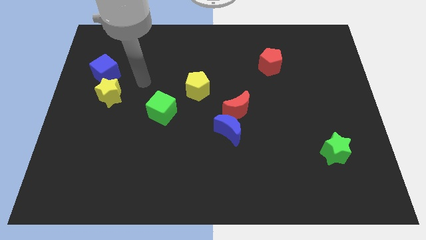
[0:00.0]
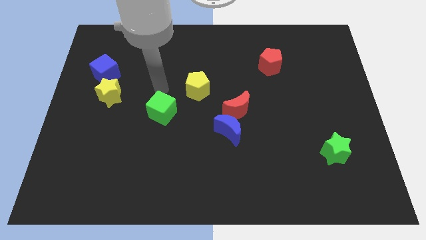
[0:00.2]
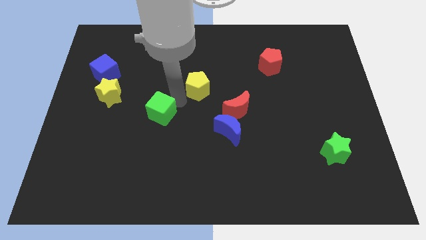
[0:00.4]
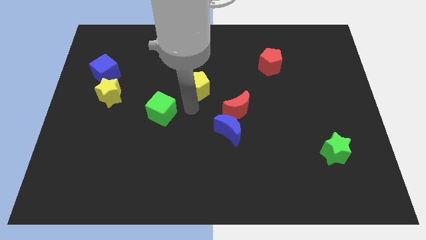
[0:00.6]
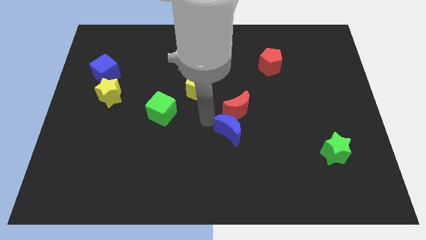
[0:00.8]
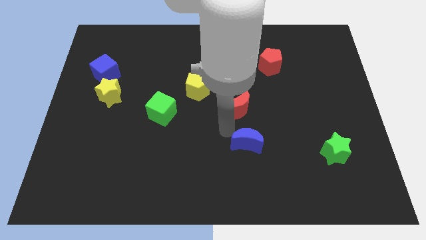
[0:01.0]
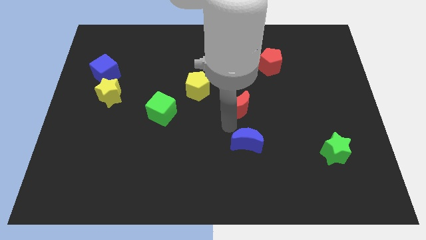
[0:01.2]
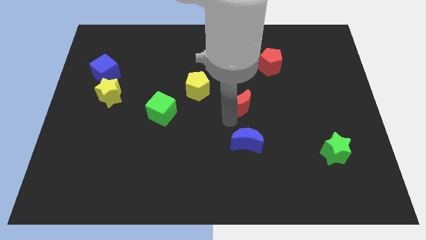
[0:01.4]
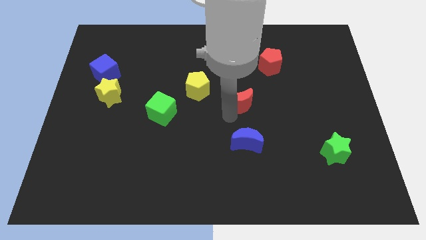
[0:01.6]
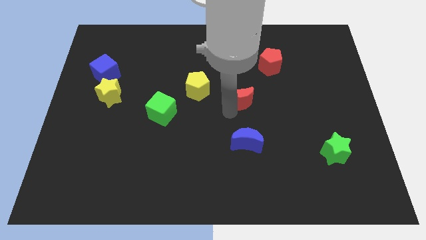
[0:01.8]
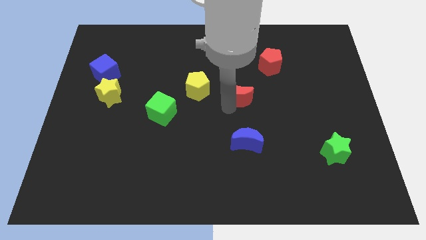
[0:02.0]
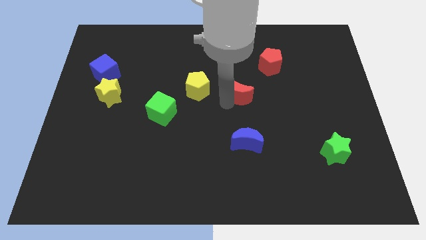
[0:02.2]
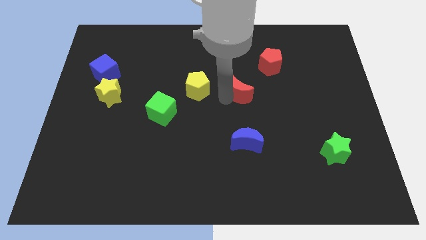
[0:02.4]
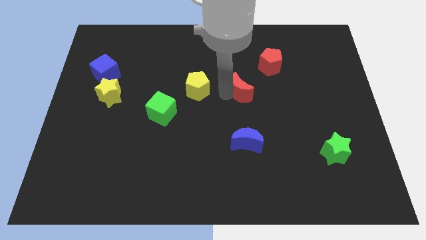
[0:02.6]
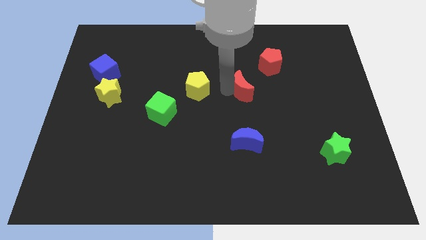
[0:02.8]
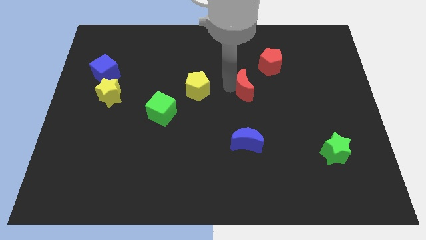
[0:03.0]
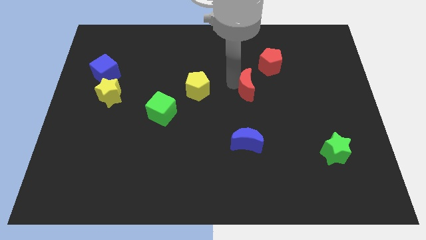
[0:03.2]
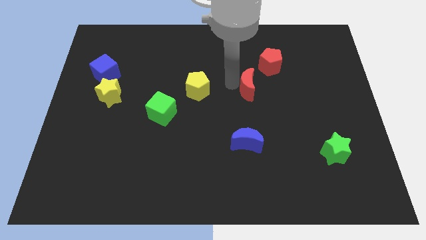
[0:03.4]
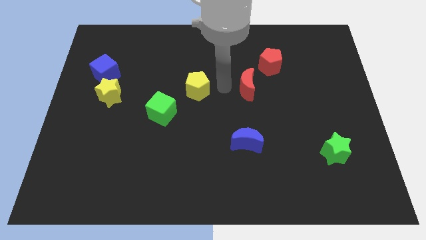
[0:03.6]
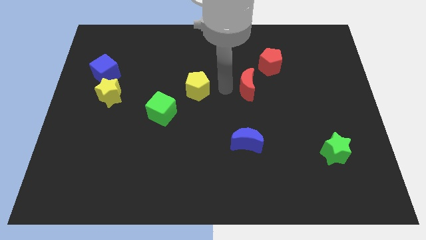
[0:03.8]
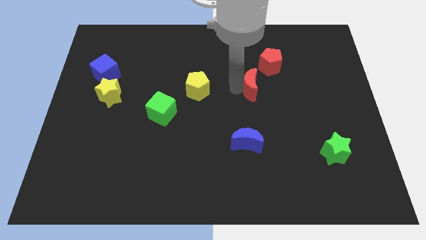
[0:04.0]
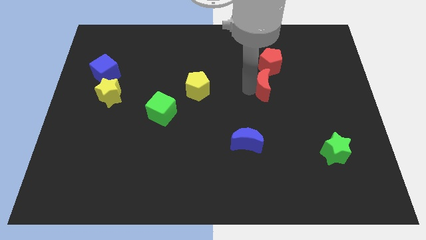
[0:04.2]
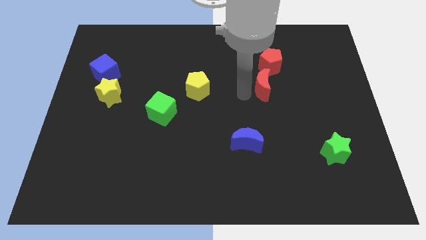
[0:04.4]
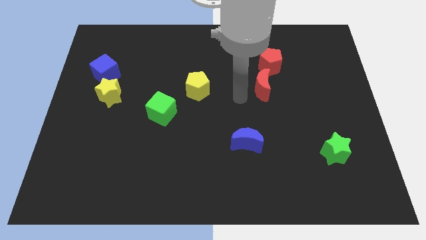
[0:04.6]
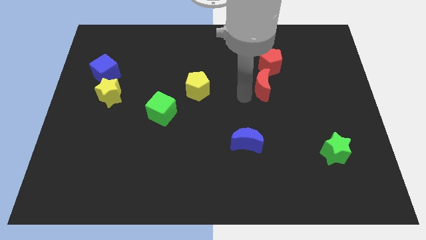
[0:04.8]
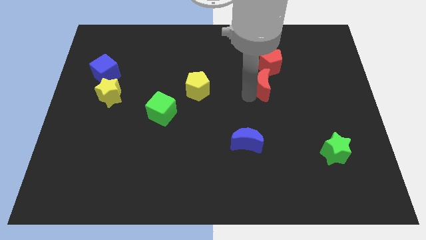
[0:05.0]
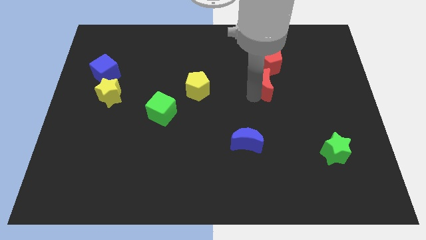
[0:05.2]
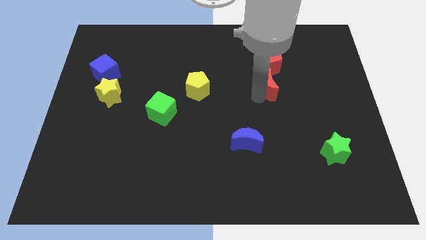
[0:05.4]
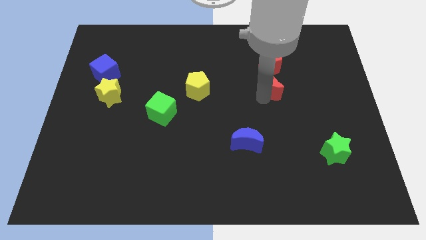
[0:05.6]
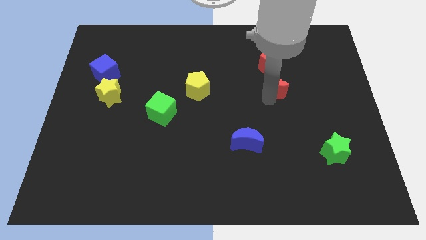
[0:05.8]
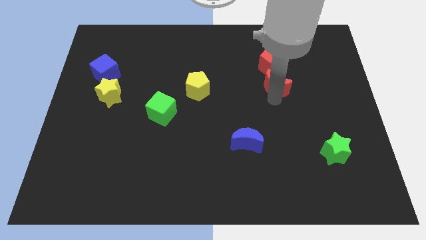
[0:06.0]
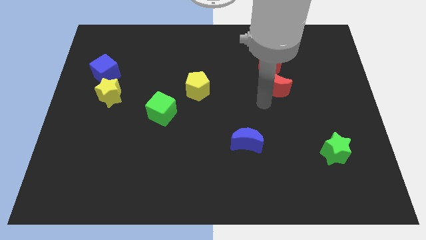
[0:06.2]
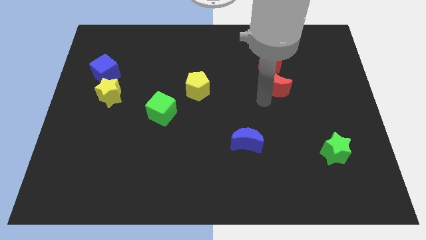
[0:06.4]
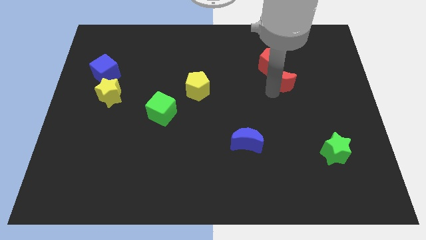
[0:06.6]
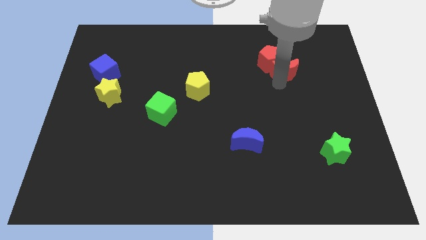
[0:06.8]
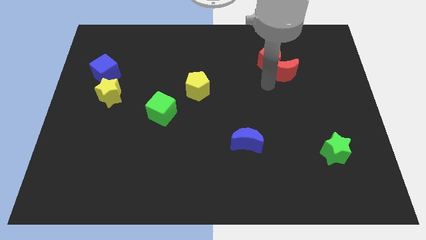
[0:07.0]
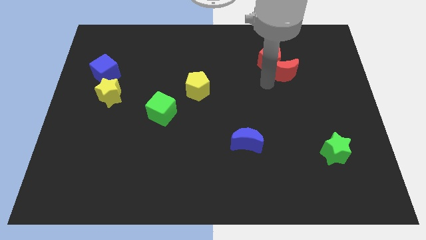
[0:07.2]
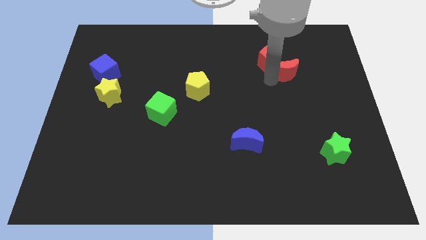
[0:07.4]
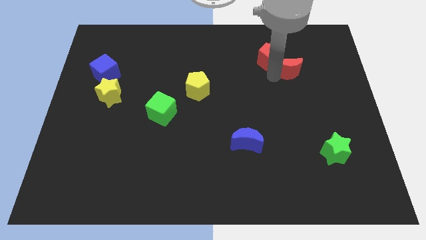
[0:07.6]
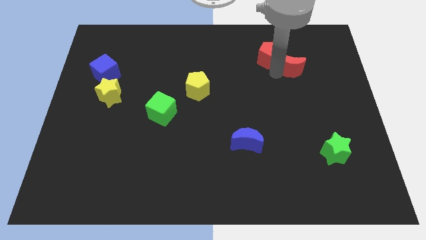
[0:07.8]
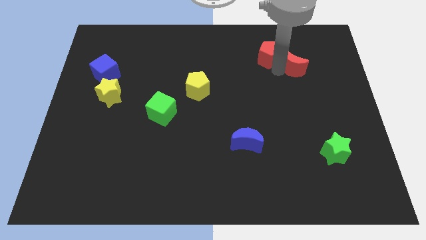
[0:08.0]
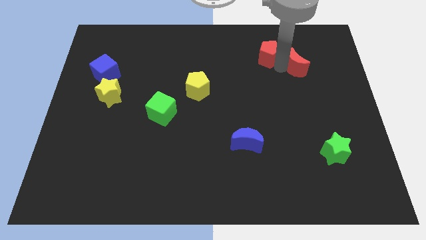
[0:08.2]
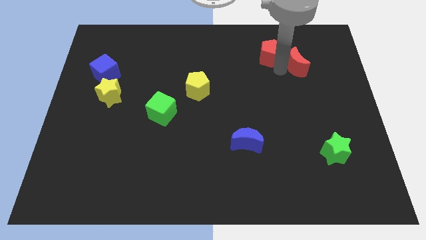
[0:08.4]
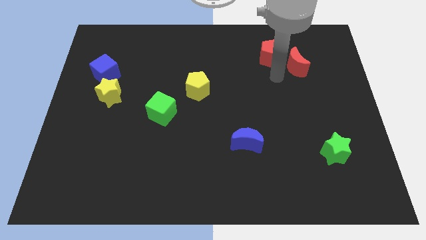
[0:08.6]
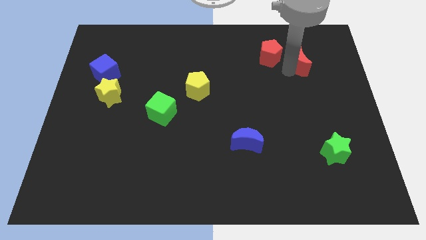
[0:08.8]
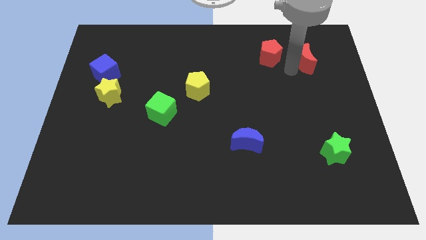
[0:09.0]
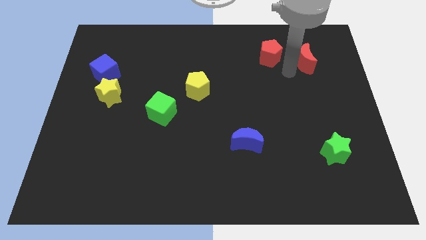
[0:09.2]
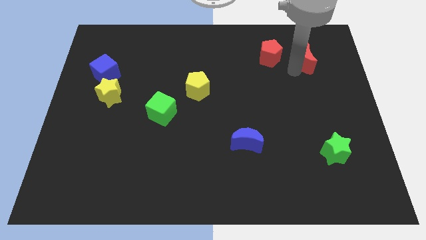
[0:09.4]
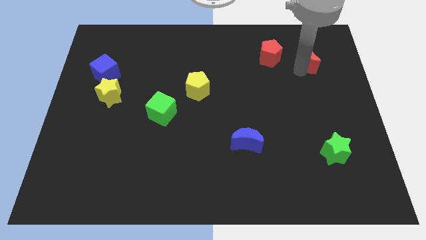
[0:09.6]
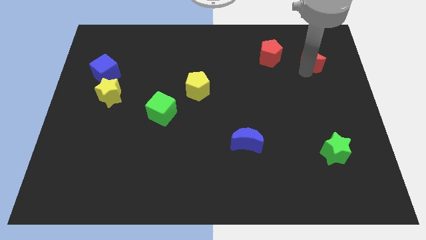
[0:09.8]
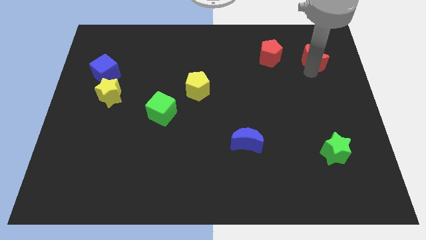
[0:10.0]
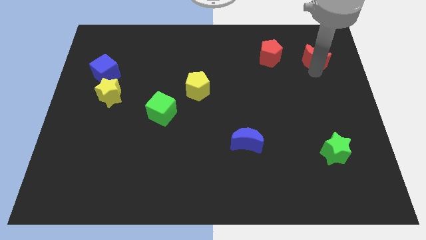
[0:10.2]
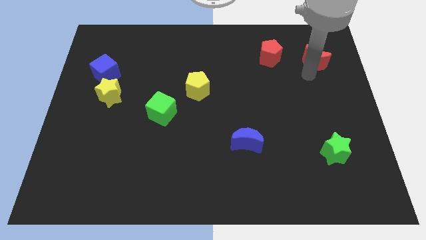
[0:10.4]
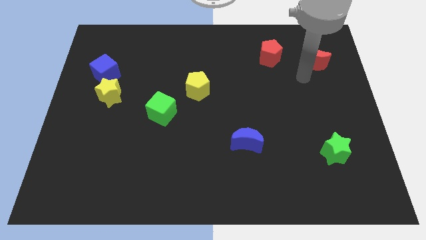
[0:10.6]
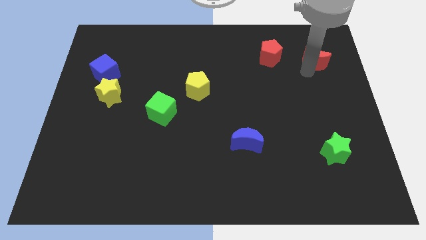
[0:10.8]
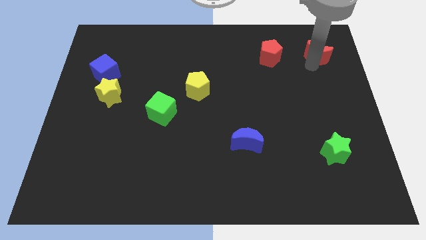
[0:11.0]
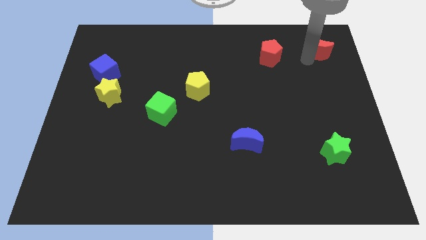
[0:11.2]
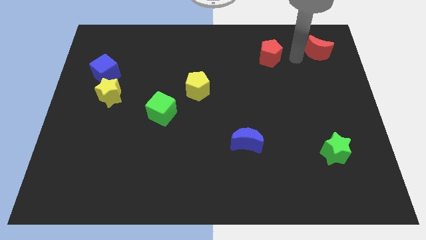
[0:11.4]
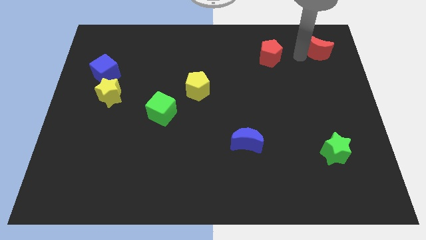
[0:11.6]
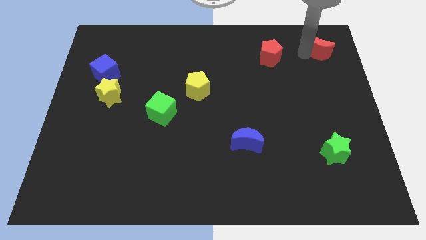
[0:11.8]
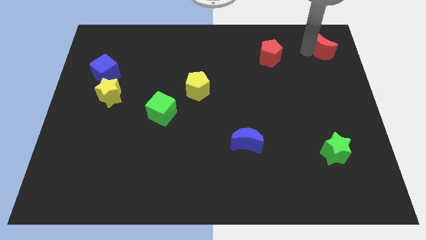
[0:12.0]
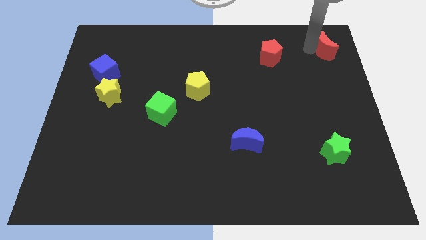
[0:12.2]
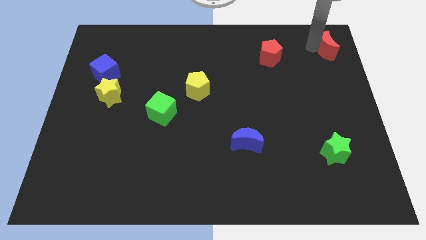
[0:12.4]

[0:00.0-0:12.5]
slide the red moon to the top right corner
